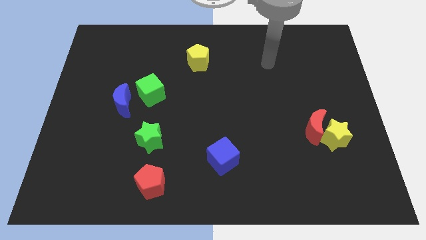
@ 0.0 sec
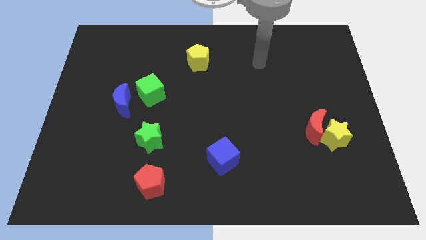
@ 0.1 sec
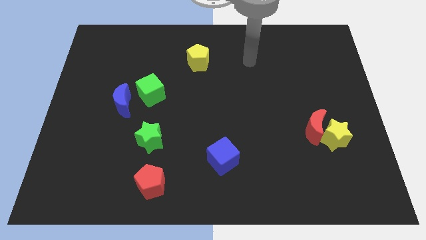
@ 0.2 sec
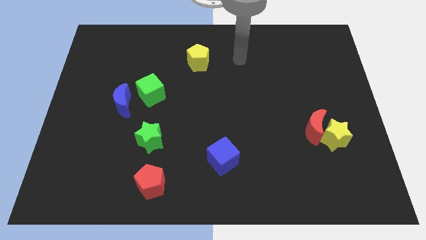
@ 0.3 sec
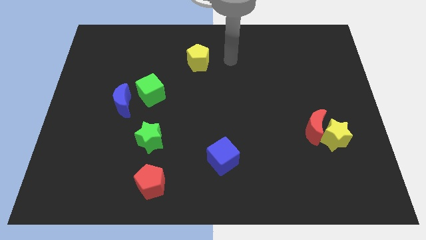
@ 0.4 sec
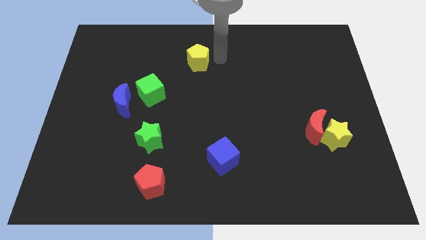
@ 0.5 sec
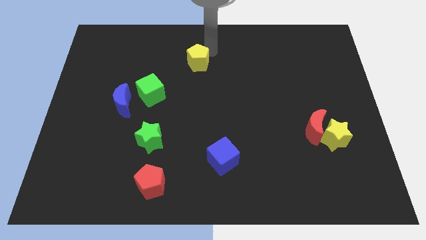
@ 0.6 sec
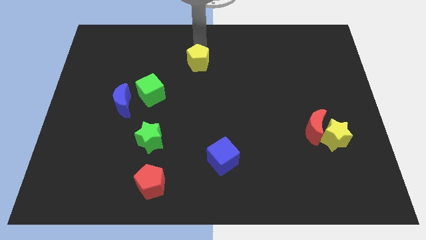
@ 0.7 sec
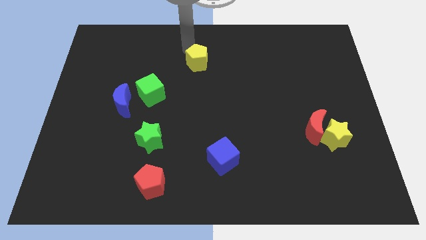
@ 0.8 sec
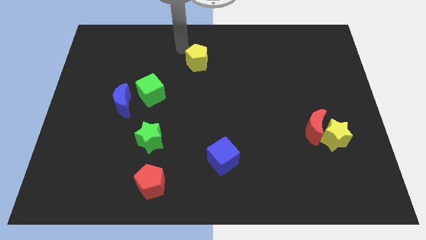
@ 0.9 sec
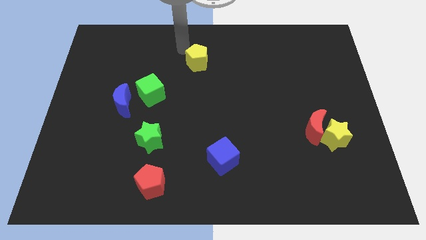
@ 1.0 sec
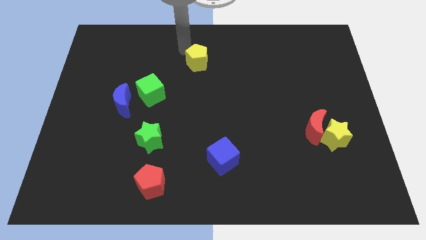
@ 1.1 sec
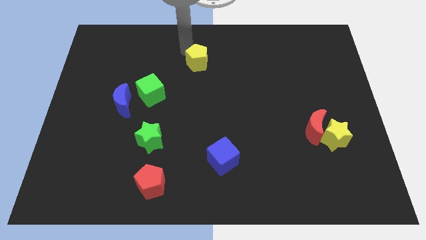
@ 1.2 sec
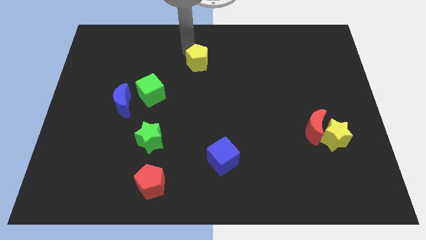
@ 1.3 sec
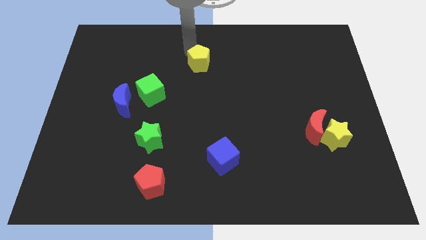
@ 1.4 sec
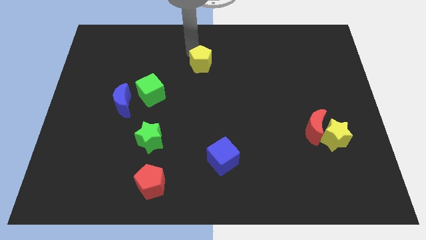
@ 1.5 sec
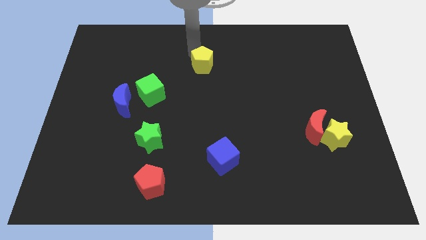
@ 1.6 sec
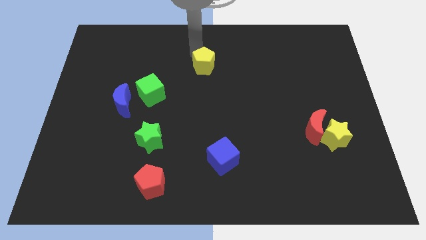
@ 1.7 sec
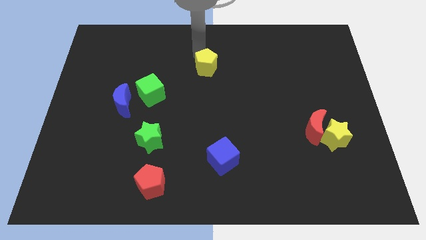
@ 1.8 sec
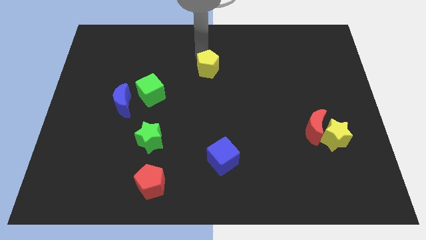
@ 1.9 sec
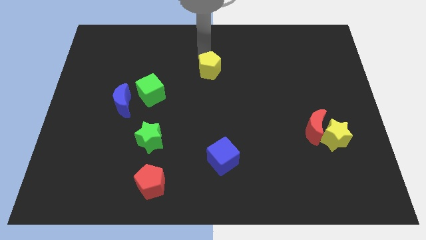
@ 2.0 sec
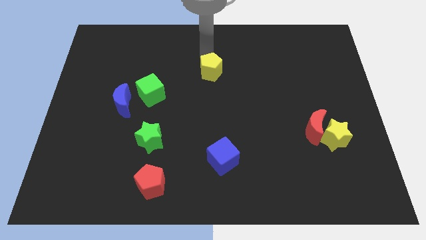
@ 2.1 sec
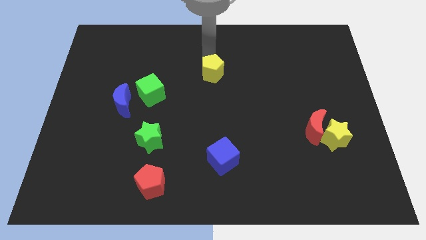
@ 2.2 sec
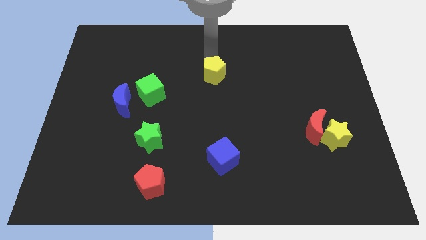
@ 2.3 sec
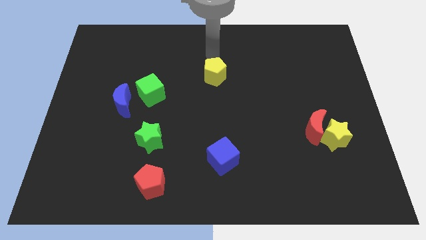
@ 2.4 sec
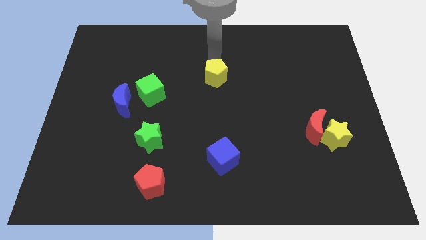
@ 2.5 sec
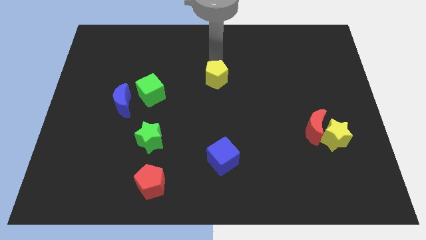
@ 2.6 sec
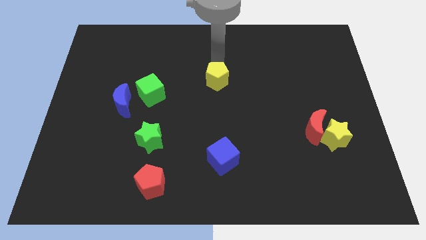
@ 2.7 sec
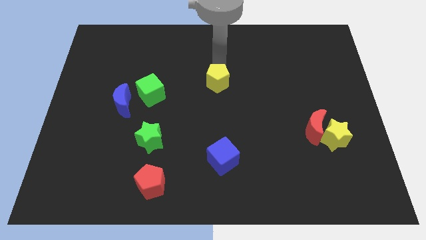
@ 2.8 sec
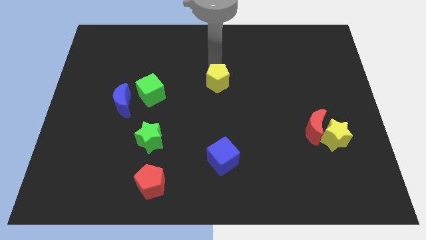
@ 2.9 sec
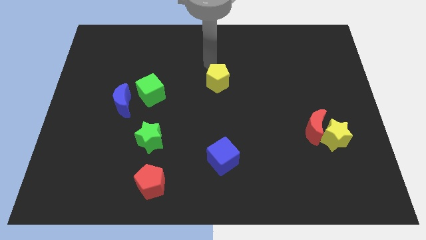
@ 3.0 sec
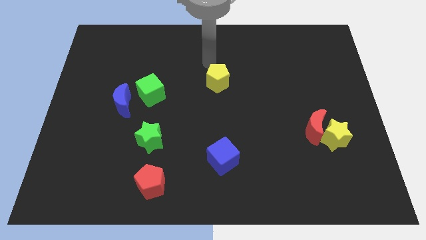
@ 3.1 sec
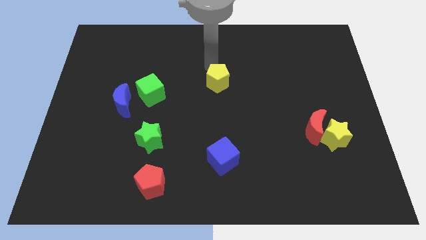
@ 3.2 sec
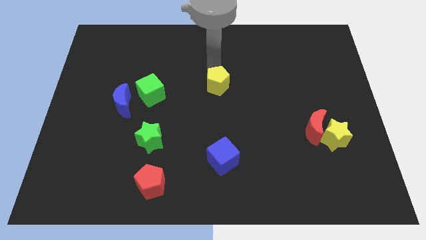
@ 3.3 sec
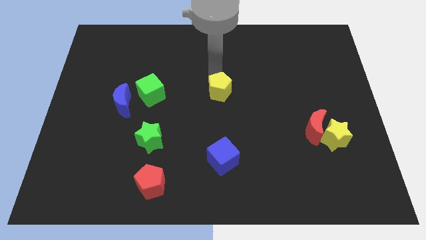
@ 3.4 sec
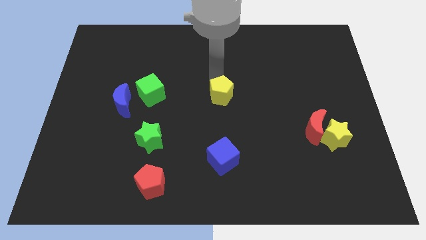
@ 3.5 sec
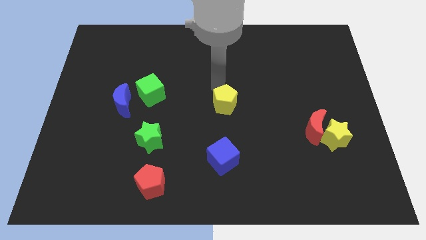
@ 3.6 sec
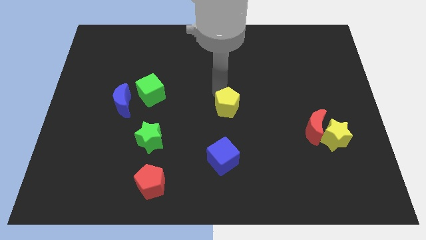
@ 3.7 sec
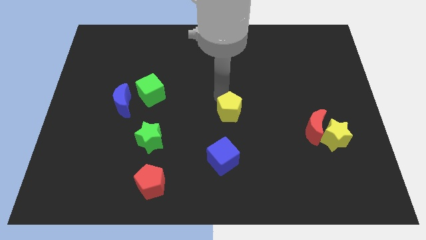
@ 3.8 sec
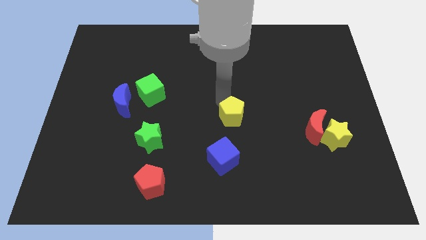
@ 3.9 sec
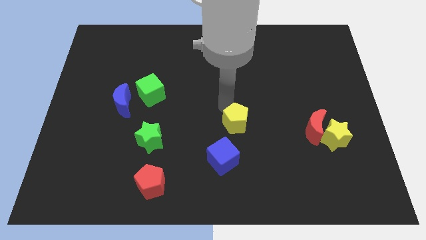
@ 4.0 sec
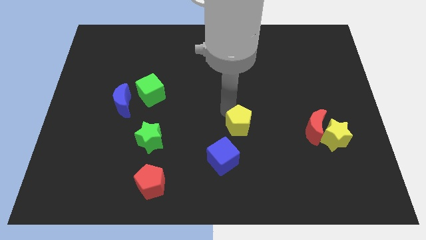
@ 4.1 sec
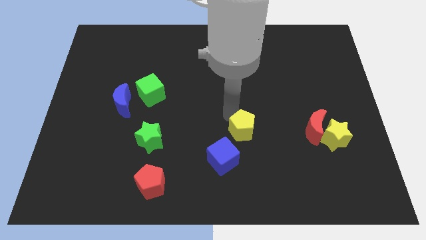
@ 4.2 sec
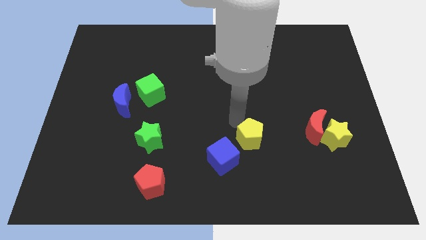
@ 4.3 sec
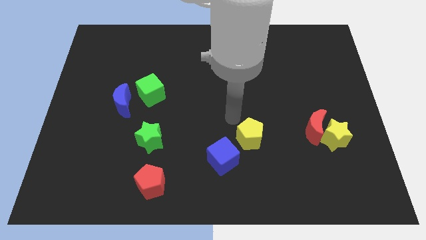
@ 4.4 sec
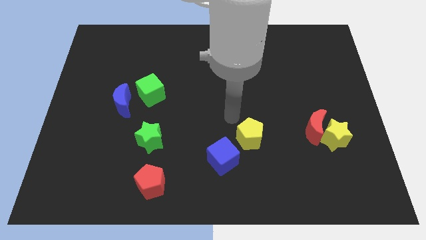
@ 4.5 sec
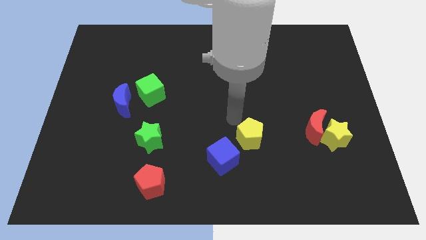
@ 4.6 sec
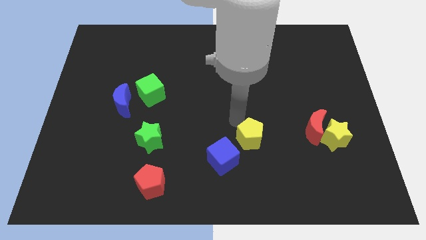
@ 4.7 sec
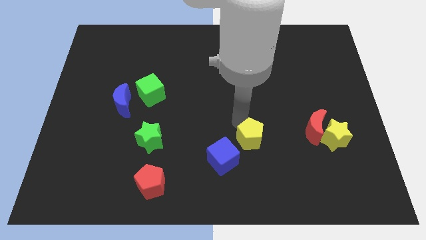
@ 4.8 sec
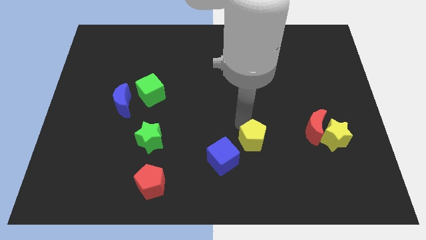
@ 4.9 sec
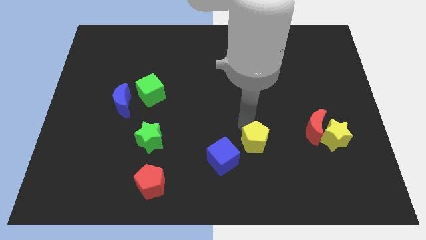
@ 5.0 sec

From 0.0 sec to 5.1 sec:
put the yellow pentagon right of the blue cube

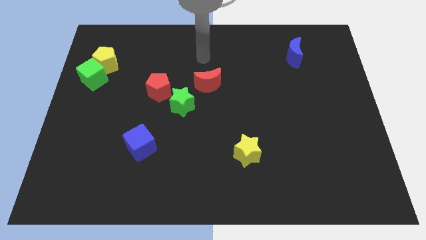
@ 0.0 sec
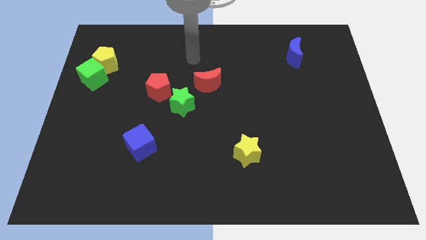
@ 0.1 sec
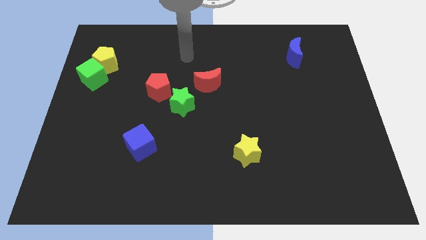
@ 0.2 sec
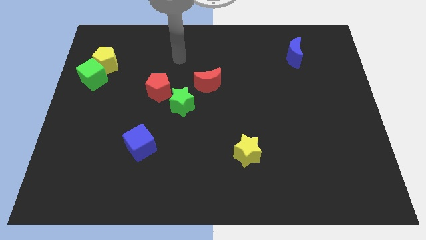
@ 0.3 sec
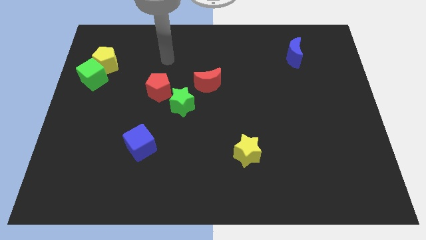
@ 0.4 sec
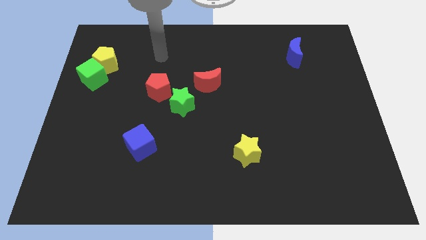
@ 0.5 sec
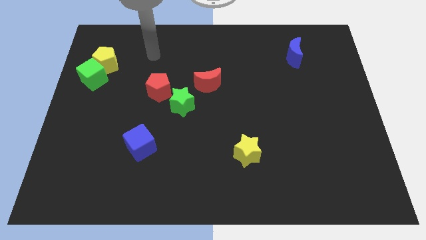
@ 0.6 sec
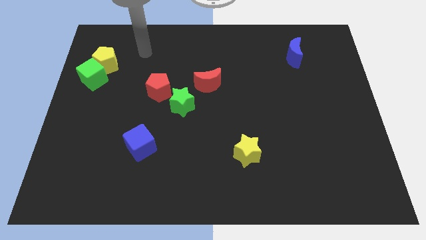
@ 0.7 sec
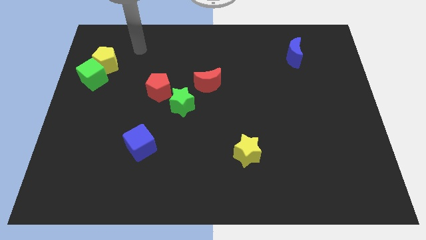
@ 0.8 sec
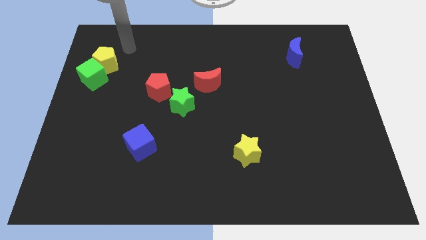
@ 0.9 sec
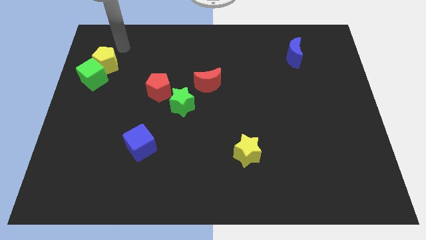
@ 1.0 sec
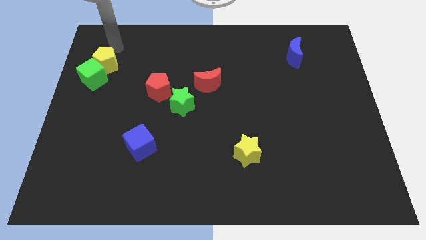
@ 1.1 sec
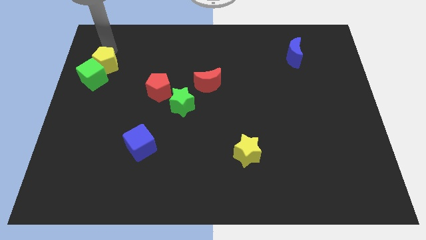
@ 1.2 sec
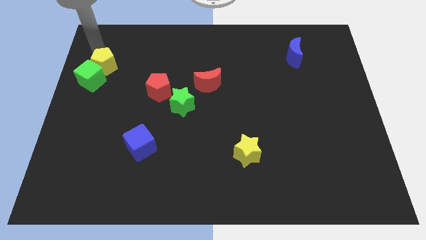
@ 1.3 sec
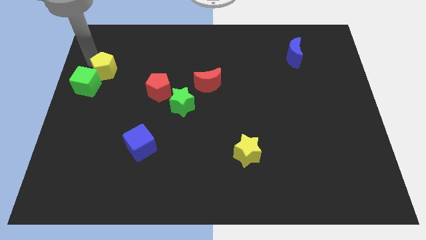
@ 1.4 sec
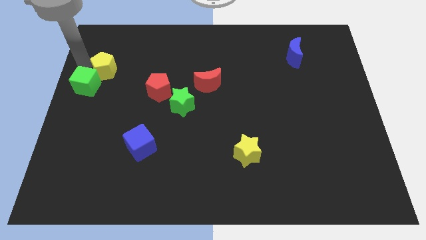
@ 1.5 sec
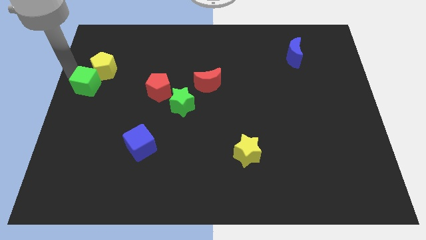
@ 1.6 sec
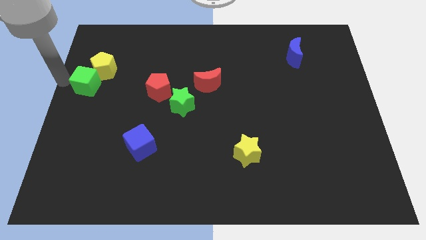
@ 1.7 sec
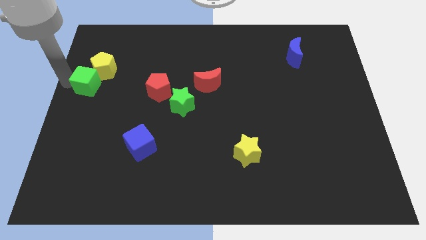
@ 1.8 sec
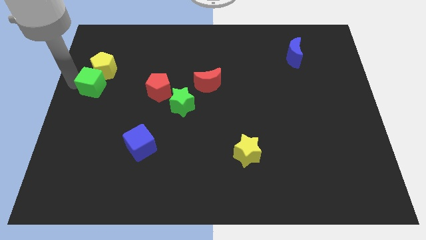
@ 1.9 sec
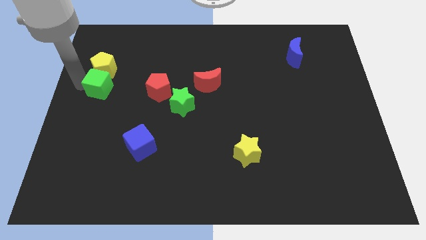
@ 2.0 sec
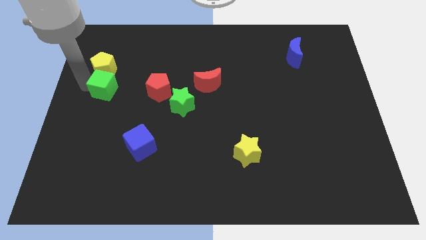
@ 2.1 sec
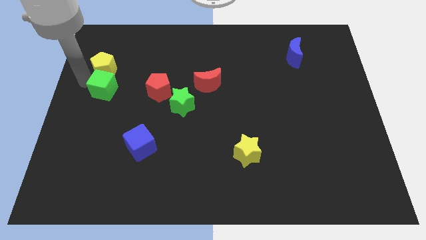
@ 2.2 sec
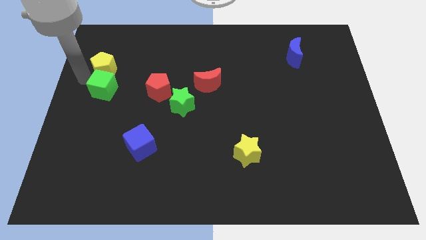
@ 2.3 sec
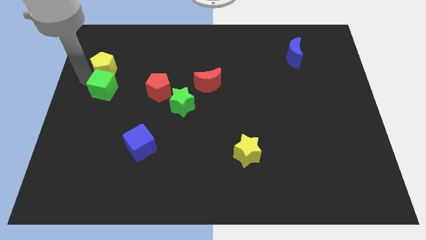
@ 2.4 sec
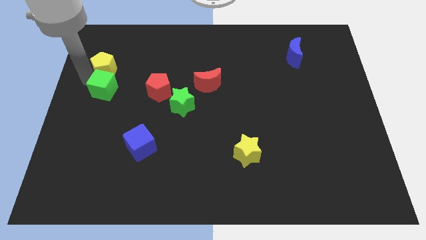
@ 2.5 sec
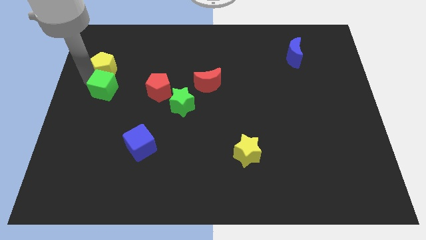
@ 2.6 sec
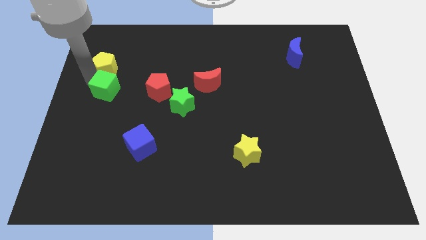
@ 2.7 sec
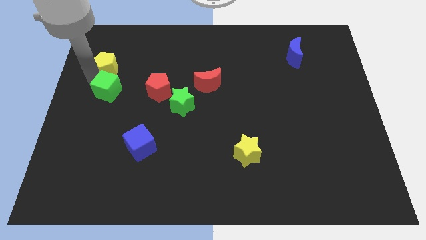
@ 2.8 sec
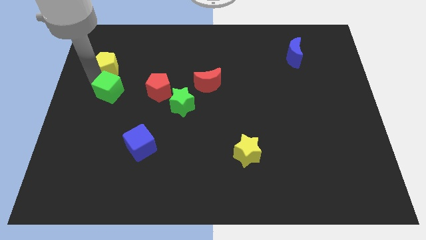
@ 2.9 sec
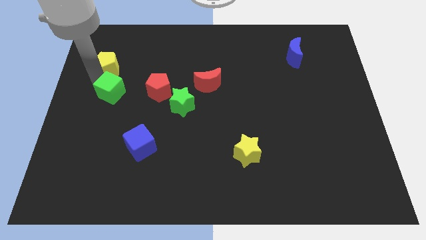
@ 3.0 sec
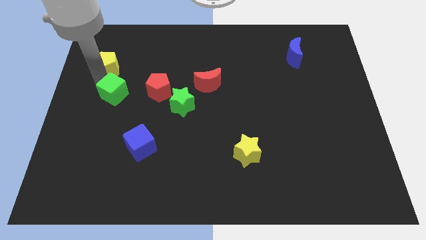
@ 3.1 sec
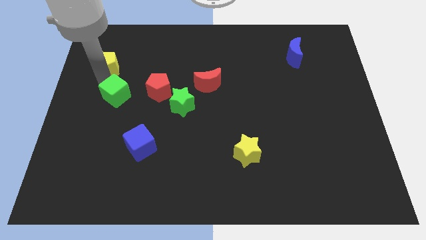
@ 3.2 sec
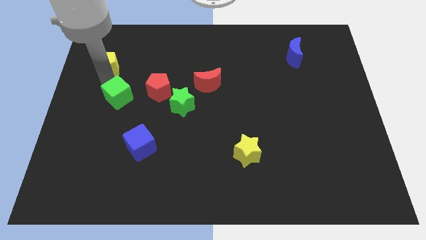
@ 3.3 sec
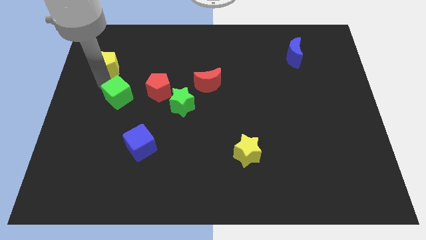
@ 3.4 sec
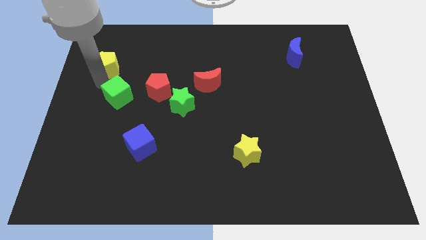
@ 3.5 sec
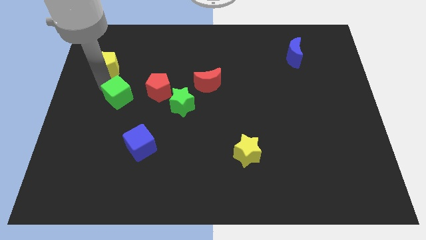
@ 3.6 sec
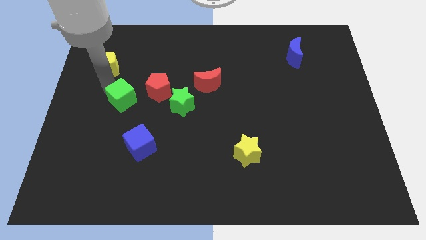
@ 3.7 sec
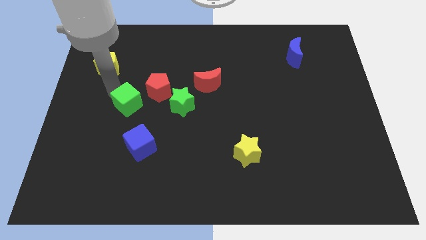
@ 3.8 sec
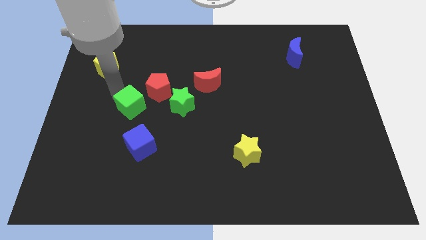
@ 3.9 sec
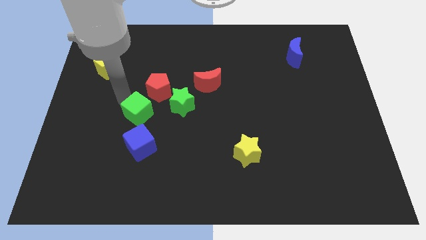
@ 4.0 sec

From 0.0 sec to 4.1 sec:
put the green cube to the bottom of the red pentagon
